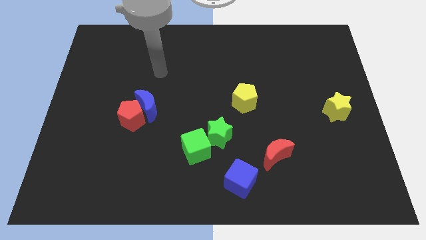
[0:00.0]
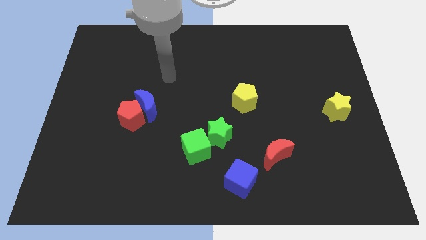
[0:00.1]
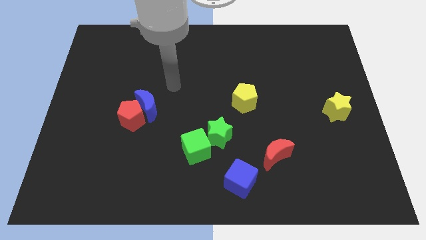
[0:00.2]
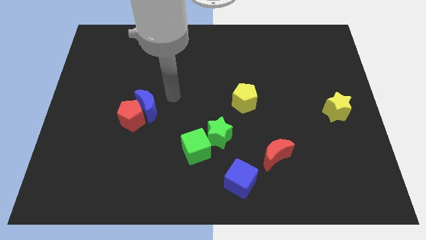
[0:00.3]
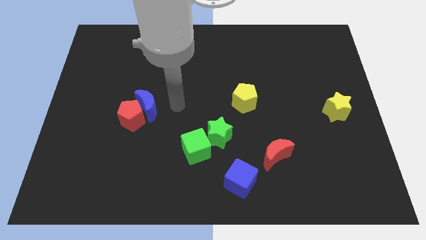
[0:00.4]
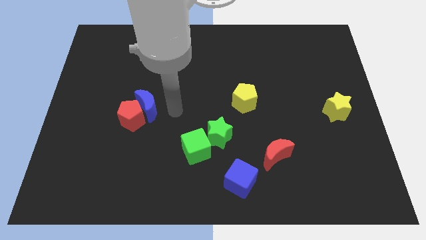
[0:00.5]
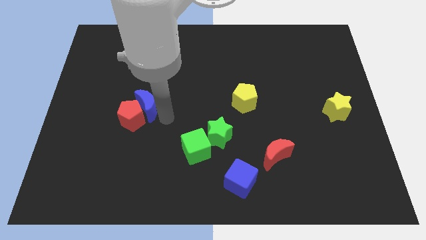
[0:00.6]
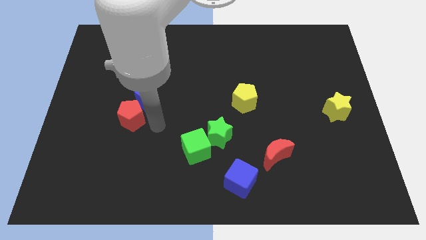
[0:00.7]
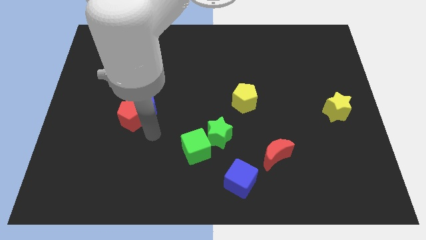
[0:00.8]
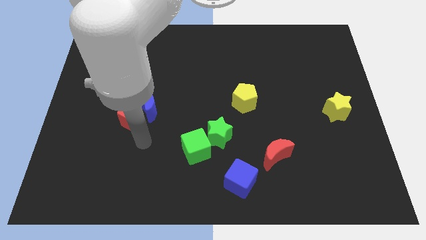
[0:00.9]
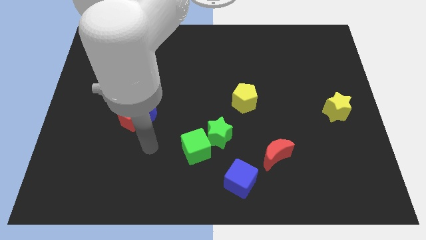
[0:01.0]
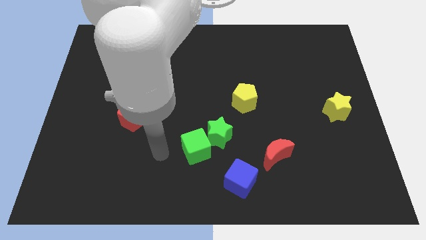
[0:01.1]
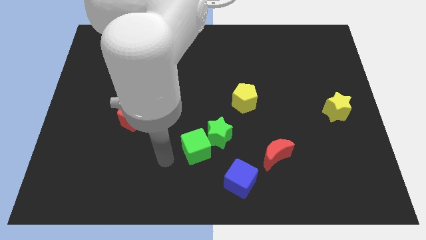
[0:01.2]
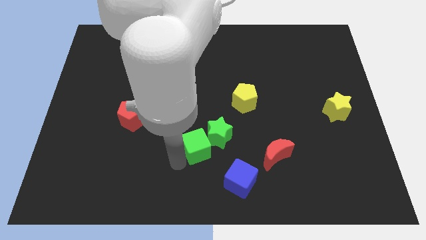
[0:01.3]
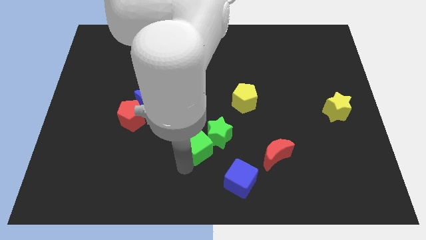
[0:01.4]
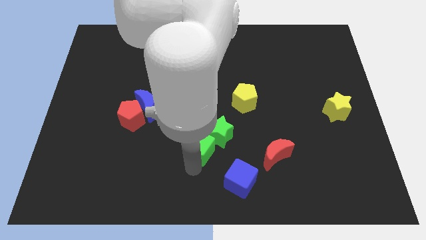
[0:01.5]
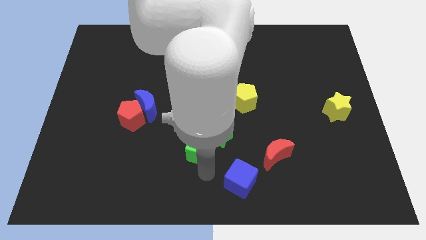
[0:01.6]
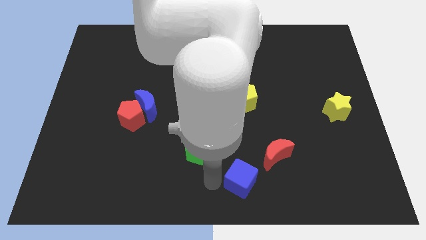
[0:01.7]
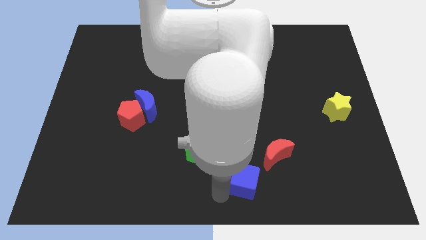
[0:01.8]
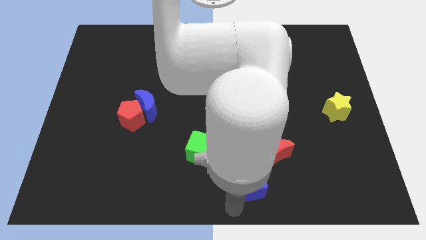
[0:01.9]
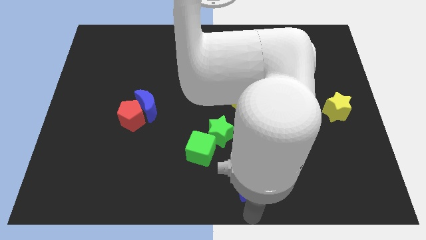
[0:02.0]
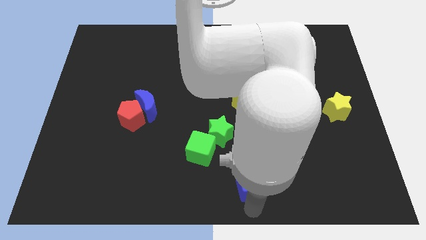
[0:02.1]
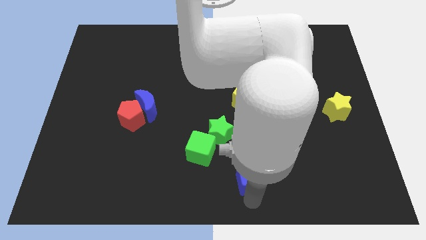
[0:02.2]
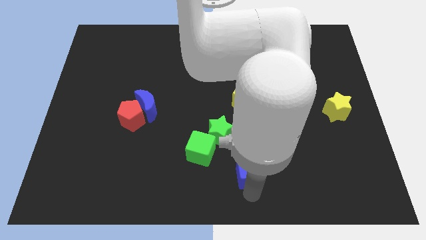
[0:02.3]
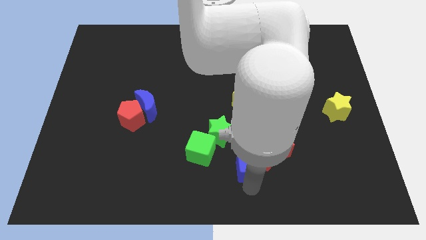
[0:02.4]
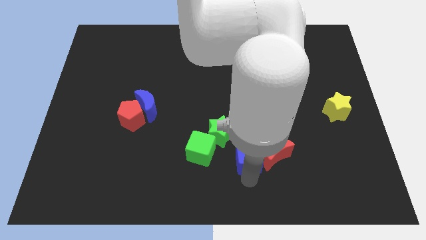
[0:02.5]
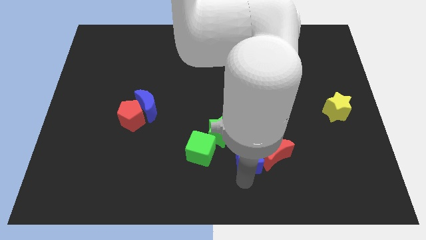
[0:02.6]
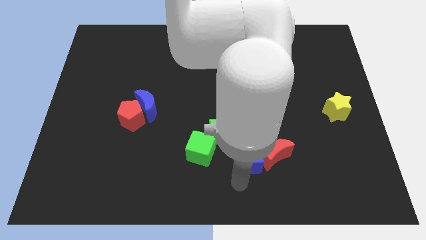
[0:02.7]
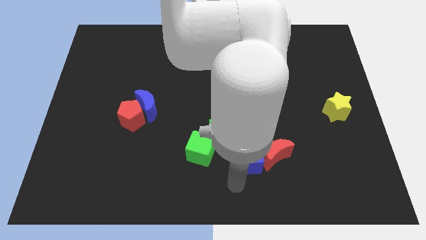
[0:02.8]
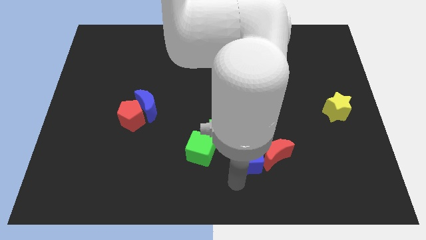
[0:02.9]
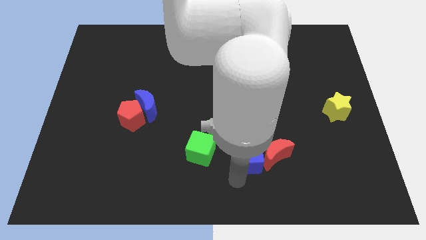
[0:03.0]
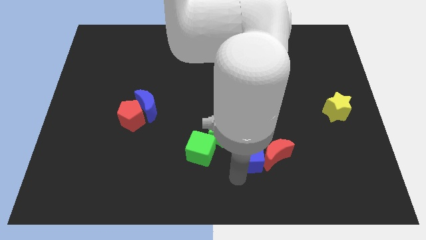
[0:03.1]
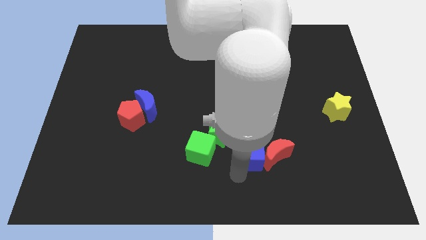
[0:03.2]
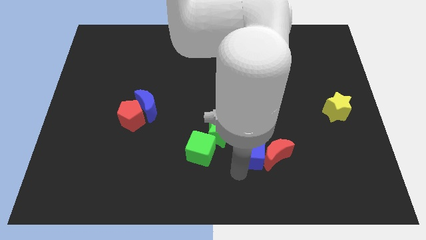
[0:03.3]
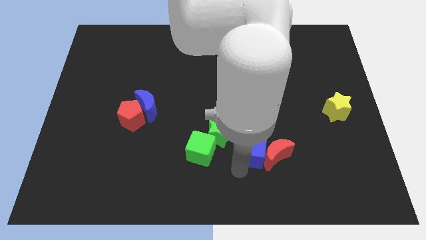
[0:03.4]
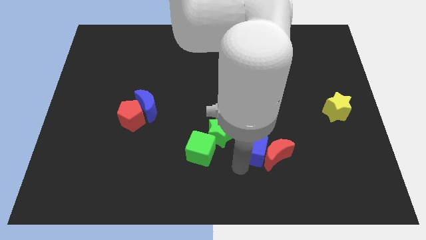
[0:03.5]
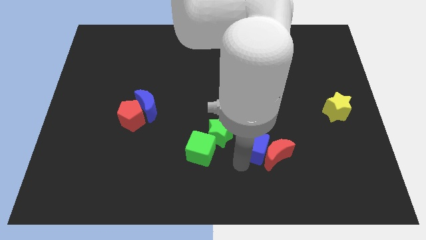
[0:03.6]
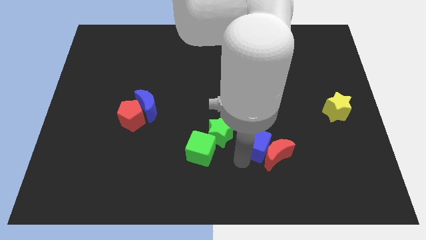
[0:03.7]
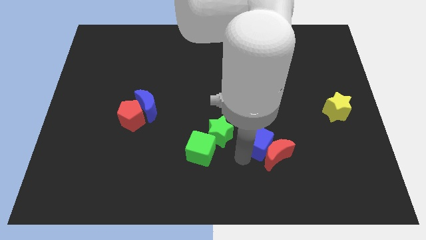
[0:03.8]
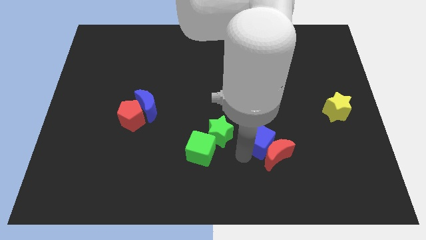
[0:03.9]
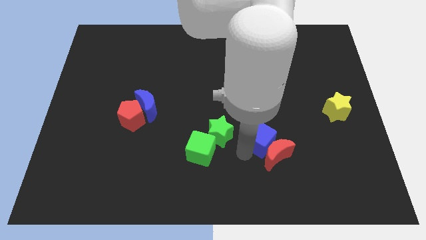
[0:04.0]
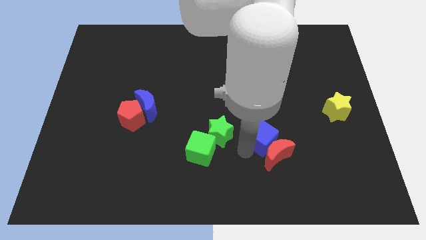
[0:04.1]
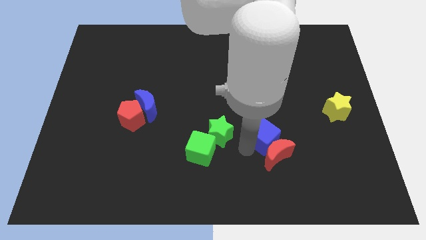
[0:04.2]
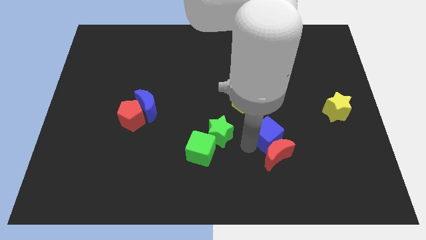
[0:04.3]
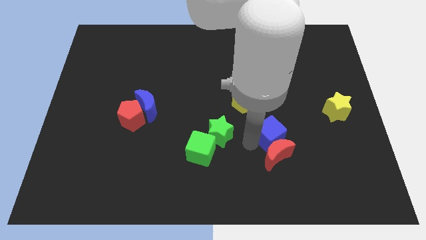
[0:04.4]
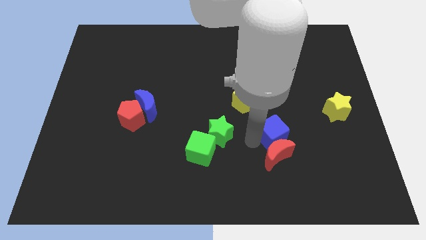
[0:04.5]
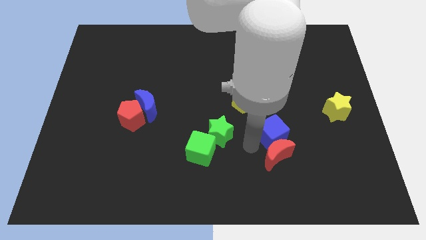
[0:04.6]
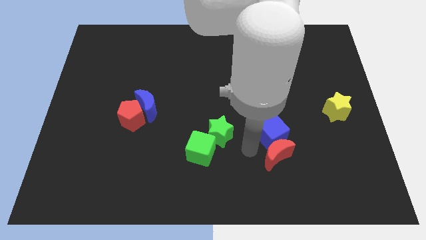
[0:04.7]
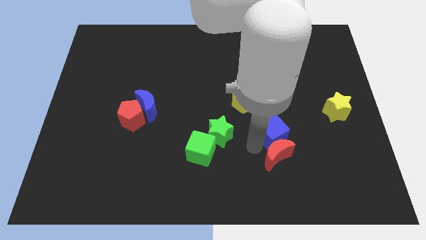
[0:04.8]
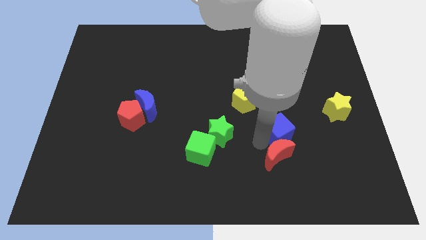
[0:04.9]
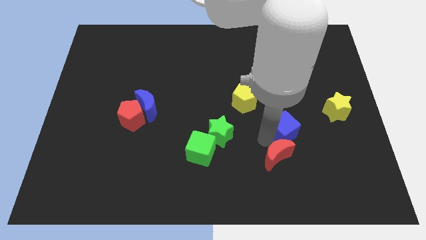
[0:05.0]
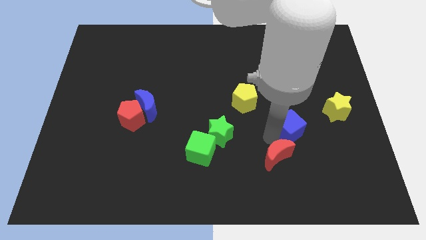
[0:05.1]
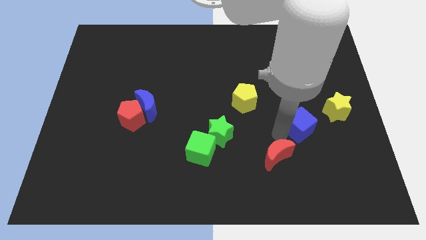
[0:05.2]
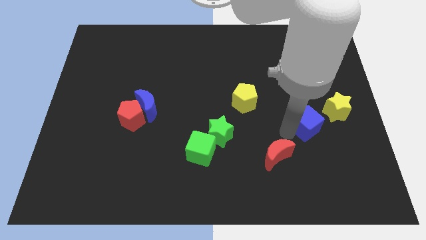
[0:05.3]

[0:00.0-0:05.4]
slide the blue cube upwards and right diagonally

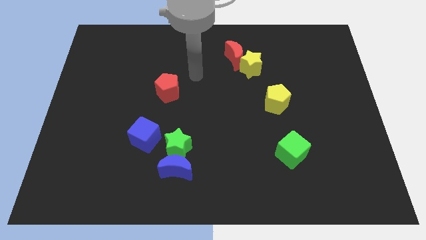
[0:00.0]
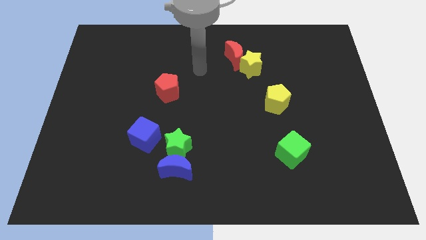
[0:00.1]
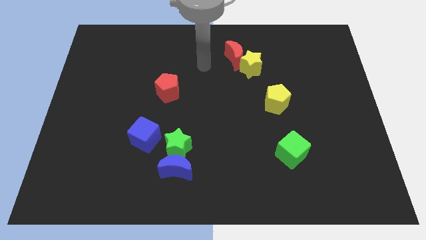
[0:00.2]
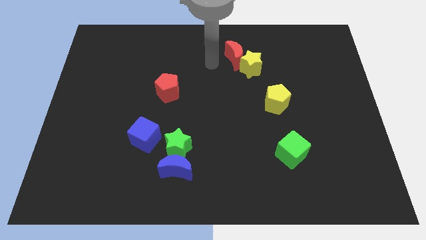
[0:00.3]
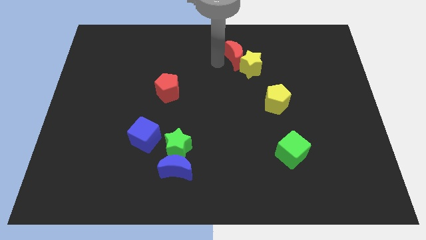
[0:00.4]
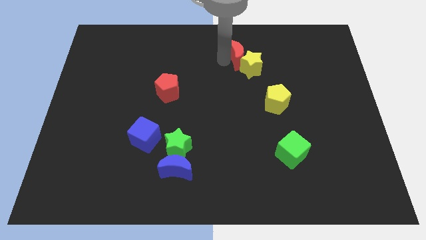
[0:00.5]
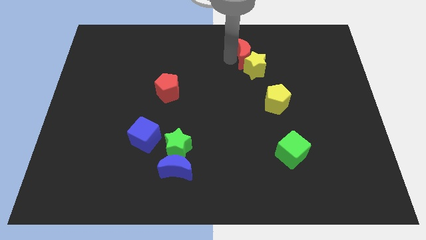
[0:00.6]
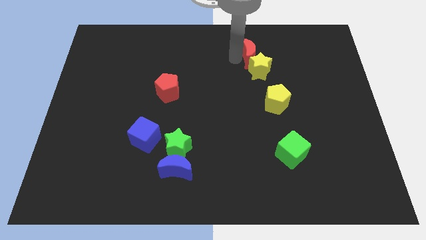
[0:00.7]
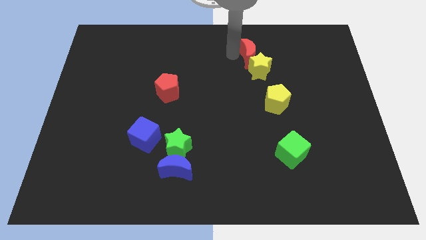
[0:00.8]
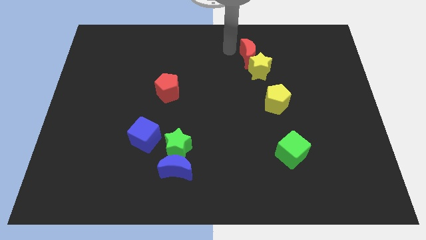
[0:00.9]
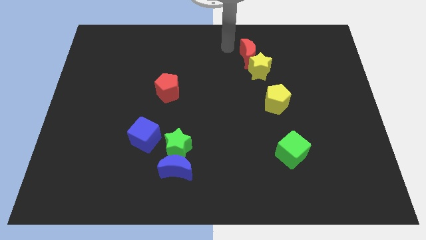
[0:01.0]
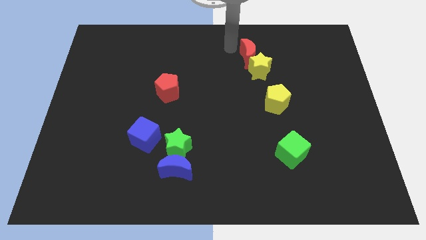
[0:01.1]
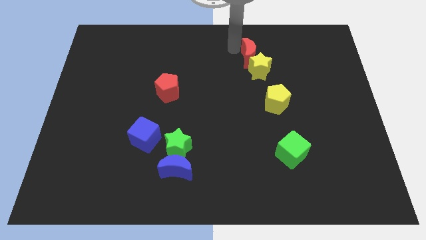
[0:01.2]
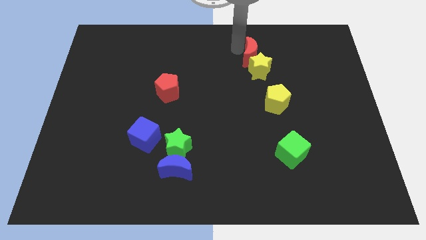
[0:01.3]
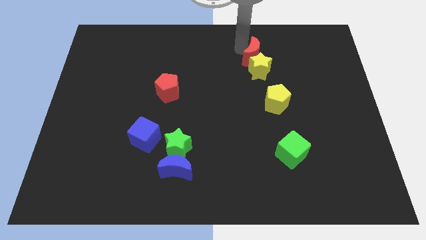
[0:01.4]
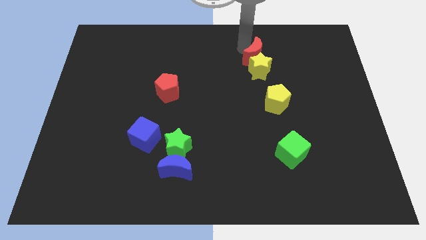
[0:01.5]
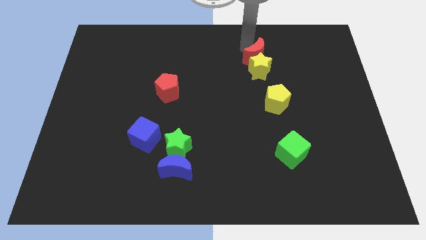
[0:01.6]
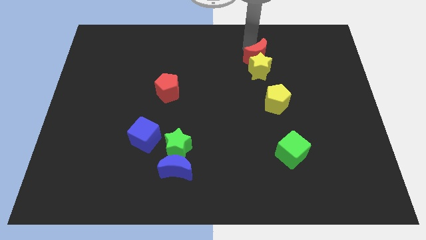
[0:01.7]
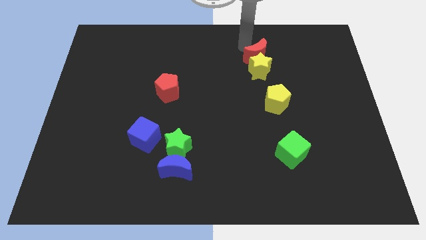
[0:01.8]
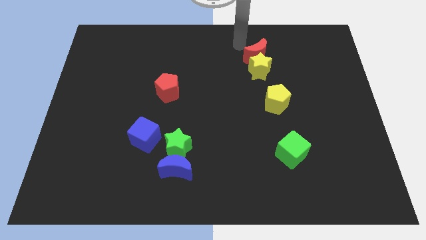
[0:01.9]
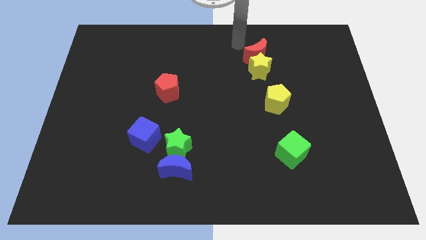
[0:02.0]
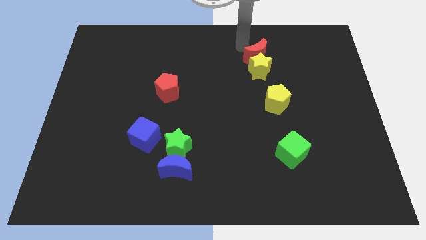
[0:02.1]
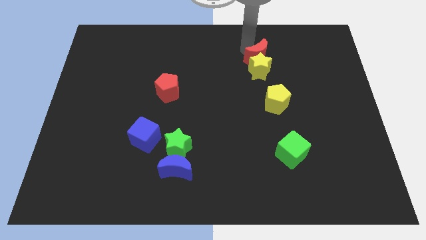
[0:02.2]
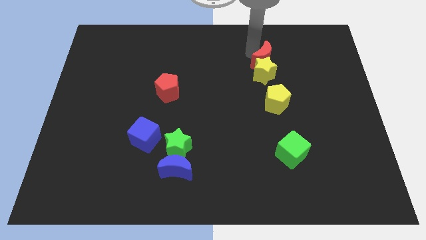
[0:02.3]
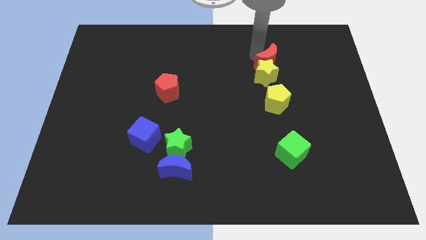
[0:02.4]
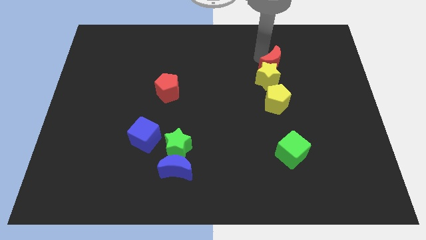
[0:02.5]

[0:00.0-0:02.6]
slightly move the red moon down and to the right diagonally
